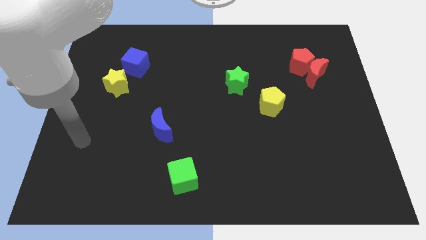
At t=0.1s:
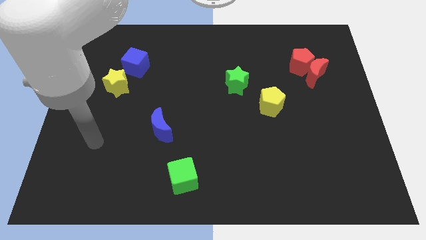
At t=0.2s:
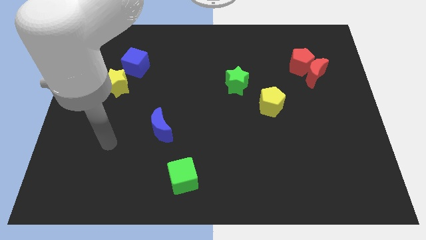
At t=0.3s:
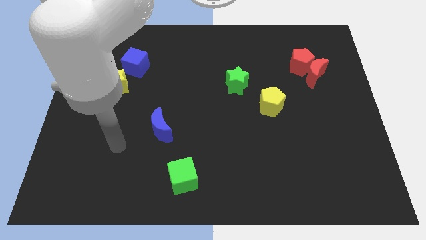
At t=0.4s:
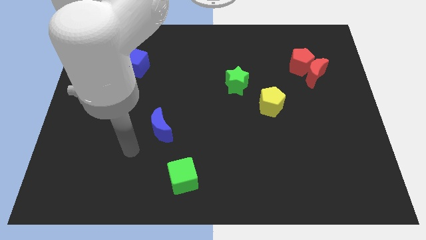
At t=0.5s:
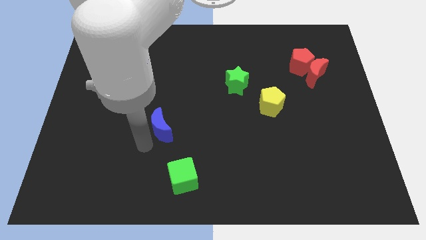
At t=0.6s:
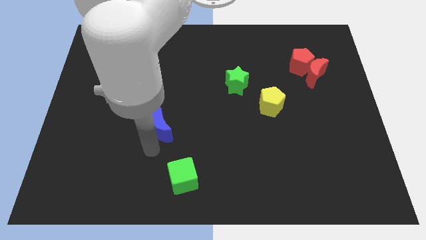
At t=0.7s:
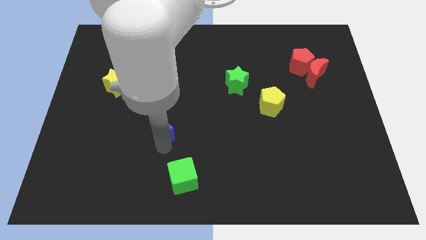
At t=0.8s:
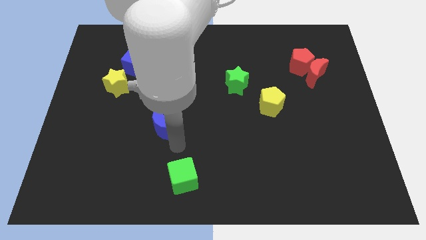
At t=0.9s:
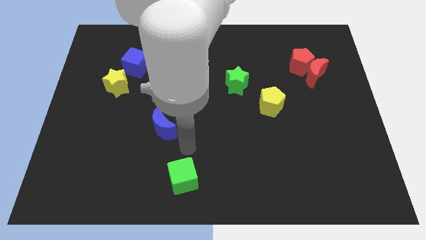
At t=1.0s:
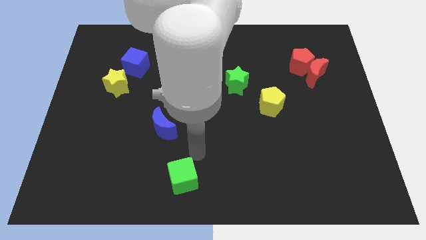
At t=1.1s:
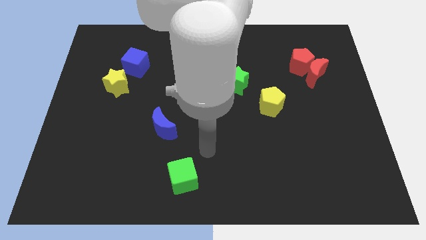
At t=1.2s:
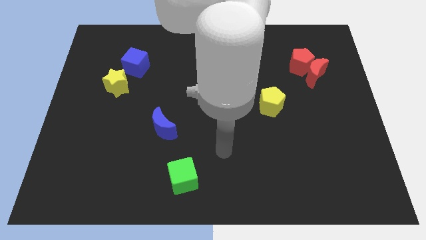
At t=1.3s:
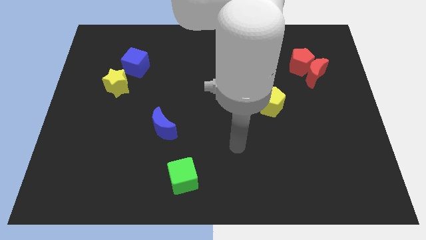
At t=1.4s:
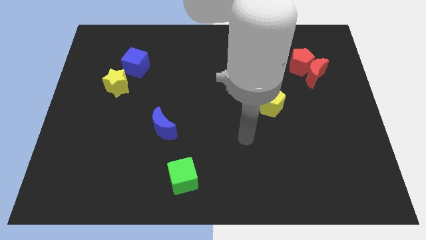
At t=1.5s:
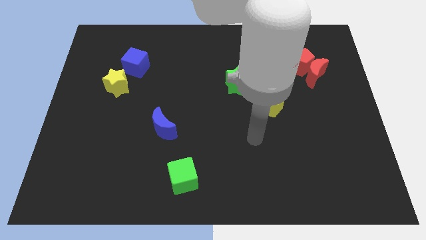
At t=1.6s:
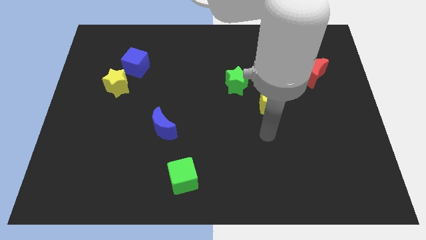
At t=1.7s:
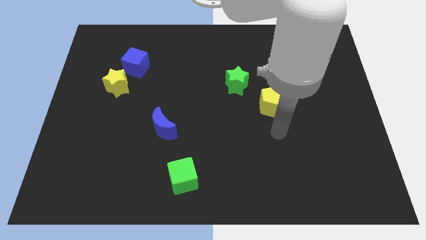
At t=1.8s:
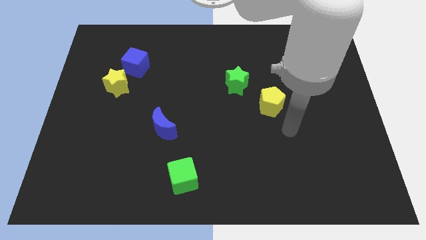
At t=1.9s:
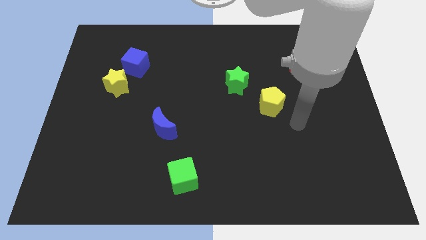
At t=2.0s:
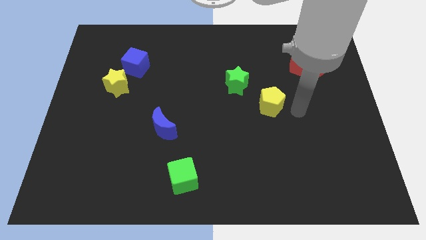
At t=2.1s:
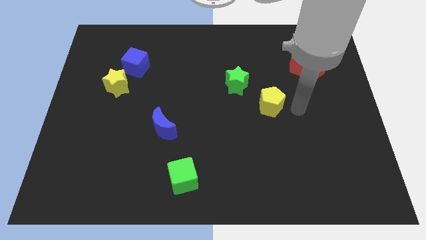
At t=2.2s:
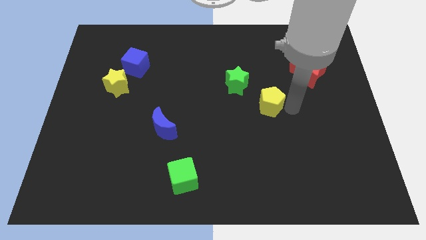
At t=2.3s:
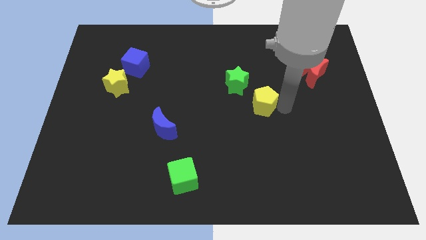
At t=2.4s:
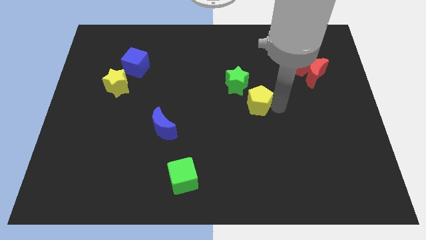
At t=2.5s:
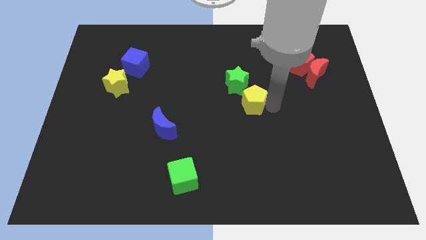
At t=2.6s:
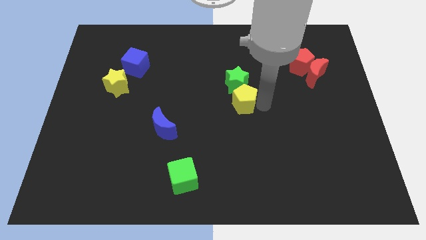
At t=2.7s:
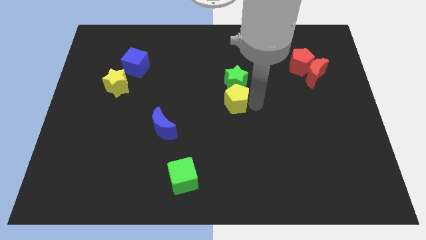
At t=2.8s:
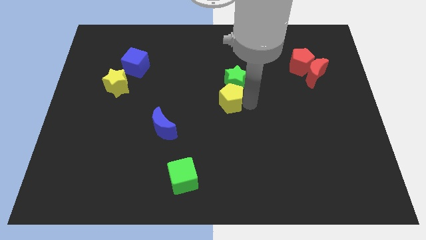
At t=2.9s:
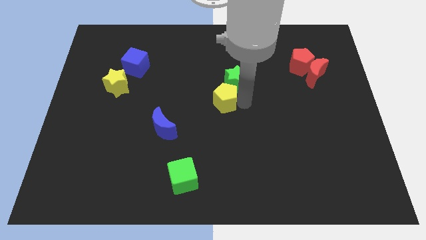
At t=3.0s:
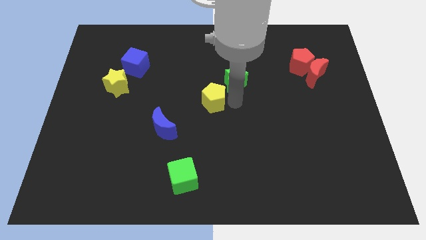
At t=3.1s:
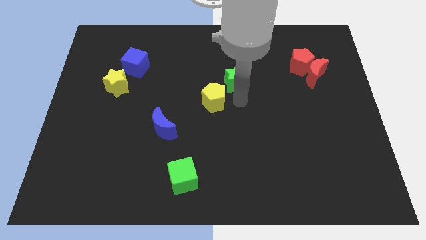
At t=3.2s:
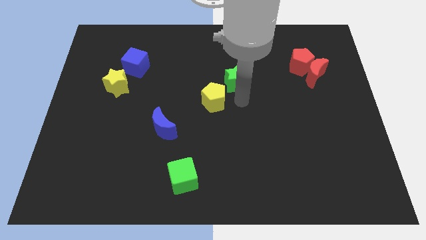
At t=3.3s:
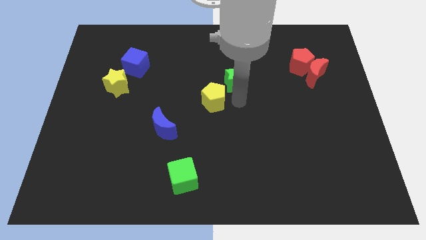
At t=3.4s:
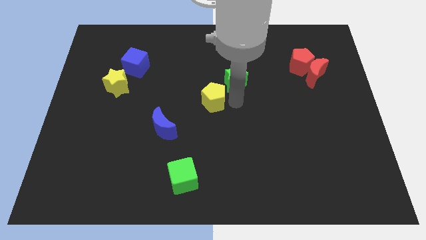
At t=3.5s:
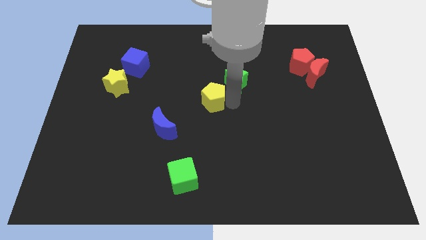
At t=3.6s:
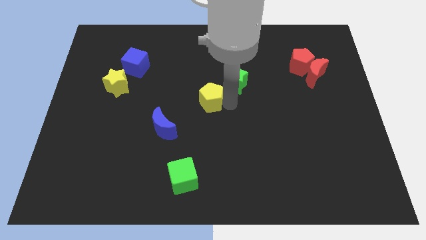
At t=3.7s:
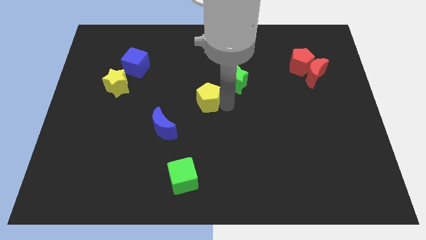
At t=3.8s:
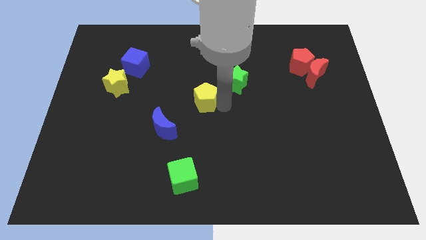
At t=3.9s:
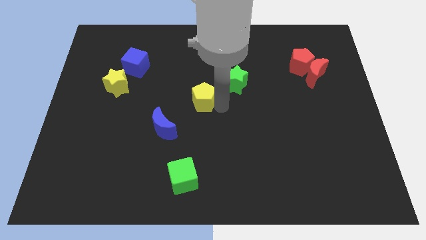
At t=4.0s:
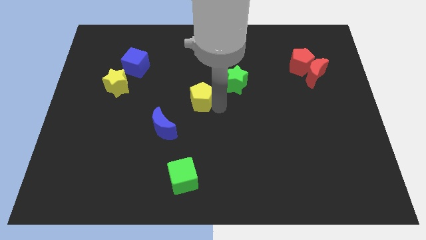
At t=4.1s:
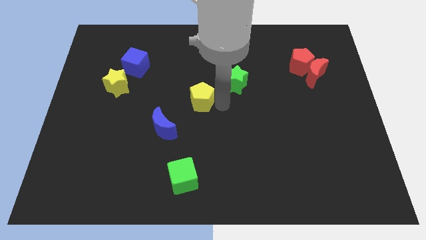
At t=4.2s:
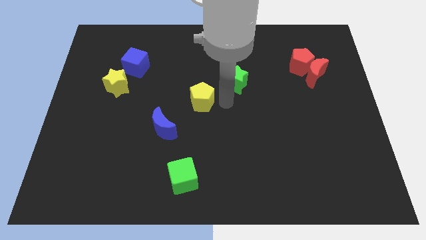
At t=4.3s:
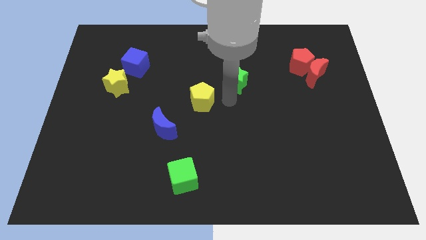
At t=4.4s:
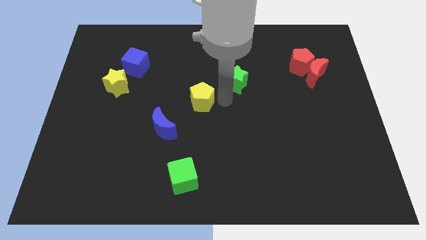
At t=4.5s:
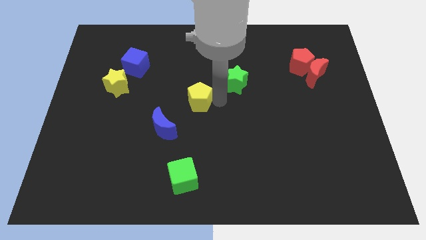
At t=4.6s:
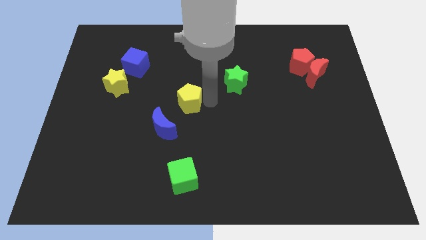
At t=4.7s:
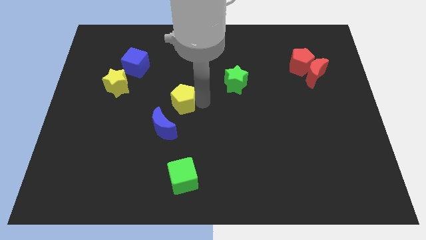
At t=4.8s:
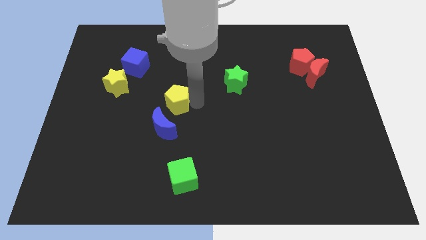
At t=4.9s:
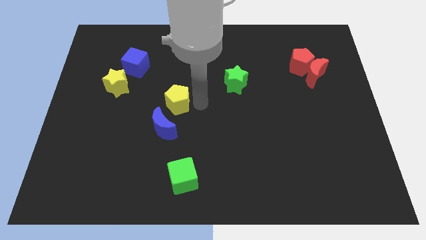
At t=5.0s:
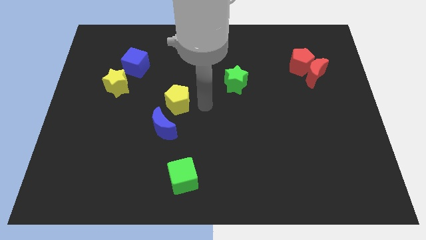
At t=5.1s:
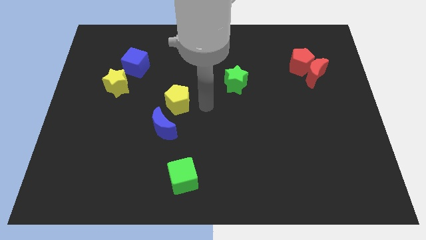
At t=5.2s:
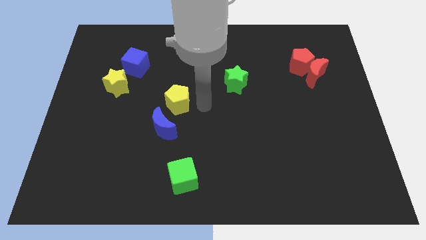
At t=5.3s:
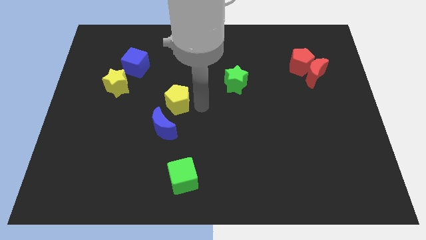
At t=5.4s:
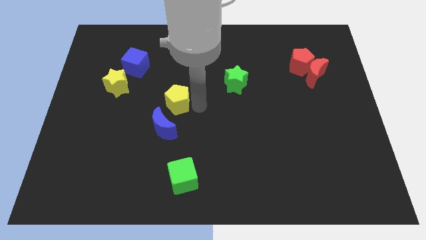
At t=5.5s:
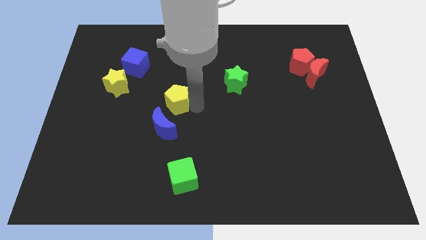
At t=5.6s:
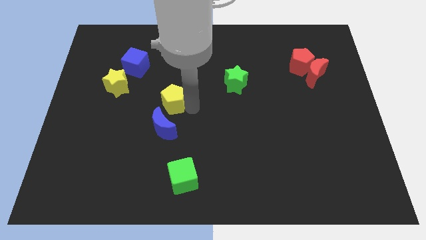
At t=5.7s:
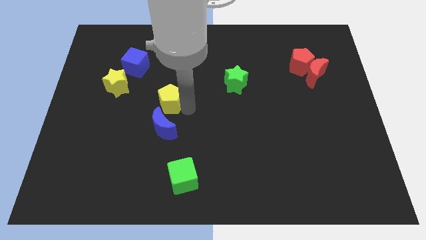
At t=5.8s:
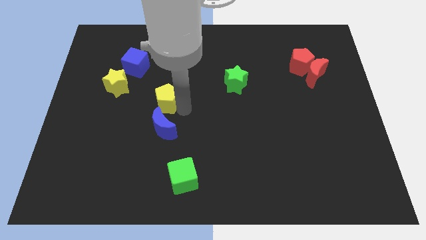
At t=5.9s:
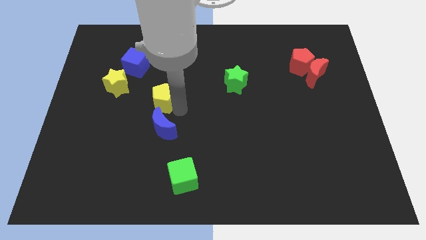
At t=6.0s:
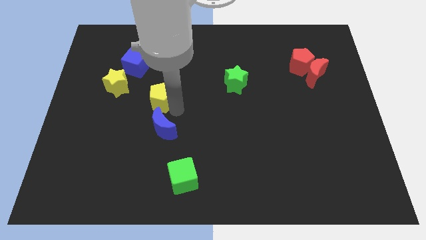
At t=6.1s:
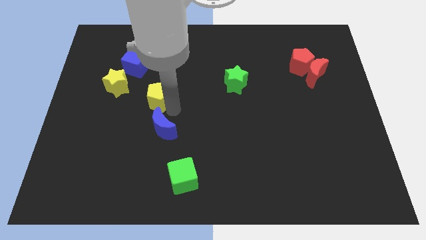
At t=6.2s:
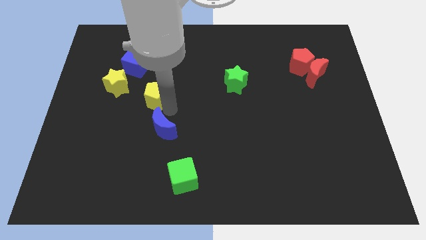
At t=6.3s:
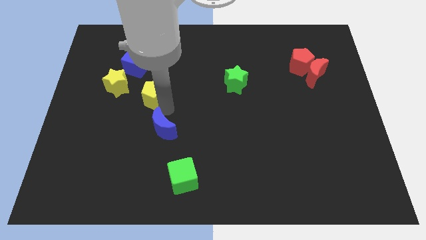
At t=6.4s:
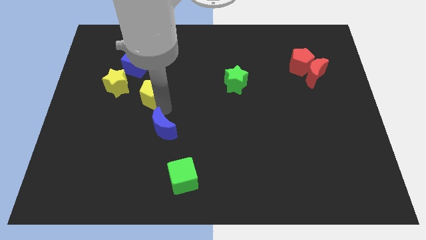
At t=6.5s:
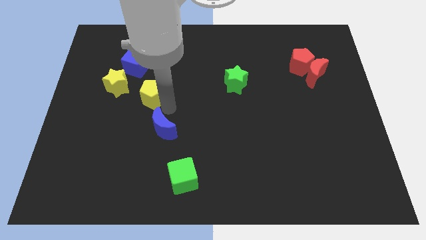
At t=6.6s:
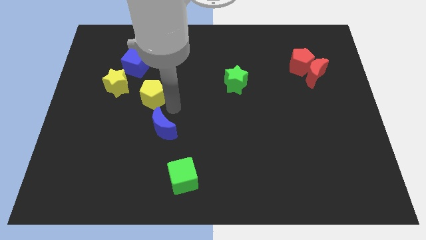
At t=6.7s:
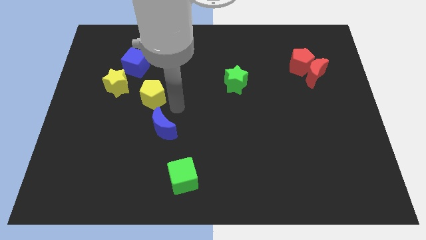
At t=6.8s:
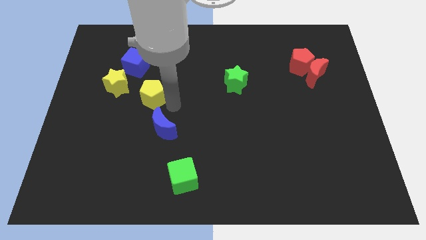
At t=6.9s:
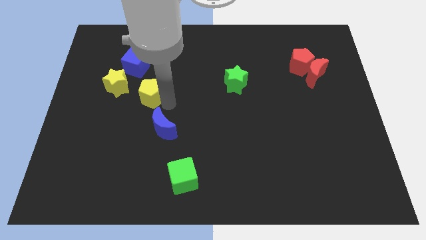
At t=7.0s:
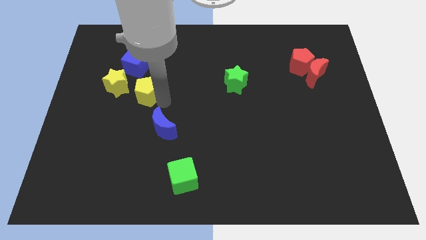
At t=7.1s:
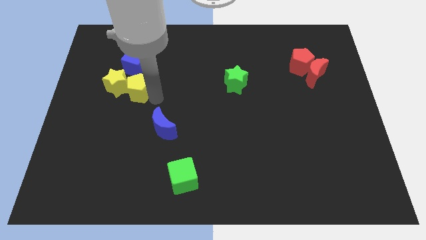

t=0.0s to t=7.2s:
push the yellow pentagon next to the yellow star
